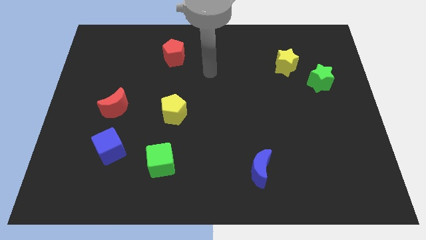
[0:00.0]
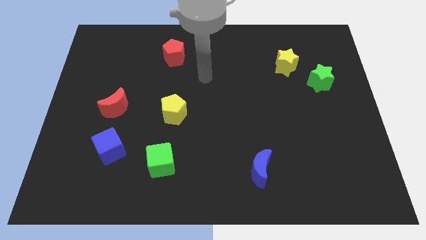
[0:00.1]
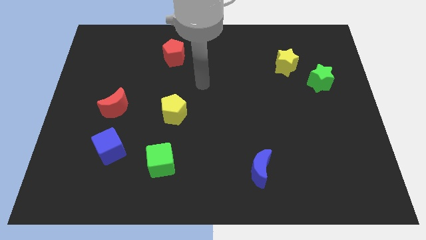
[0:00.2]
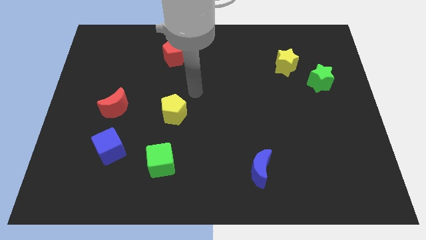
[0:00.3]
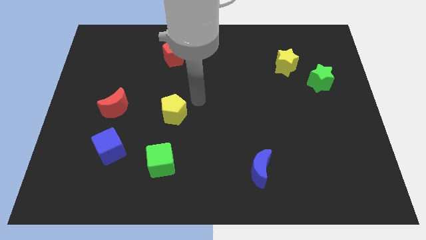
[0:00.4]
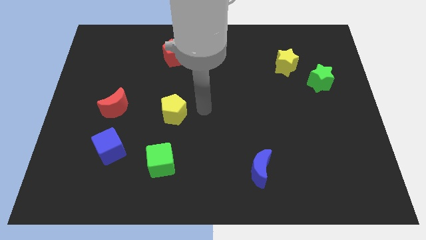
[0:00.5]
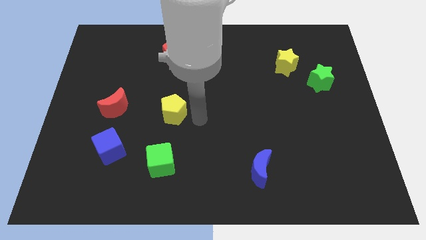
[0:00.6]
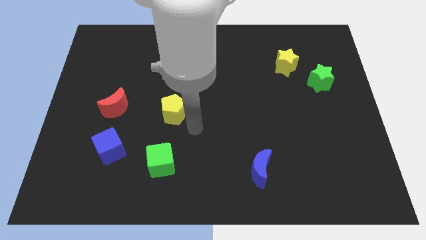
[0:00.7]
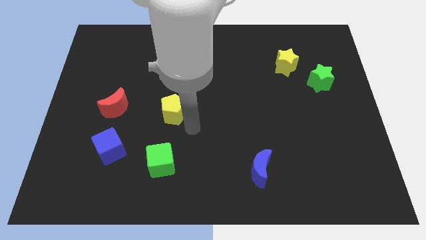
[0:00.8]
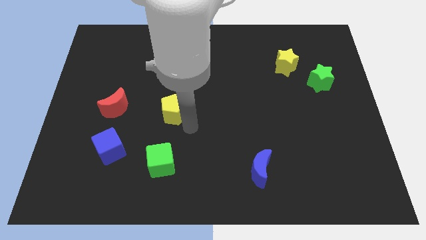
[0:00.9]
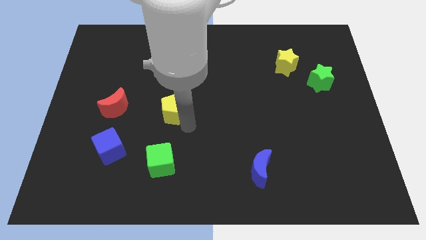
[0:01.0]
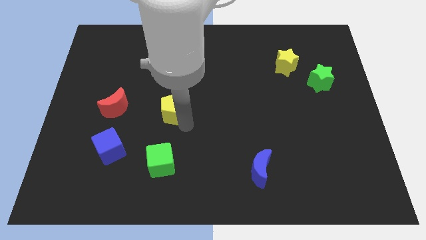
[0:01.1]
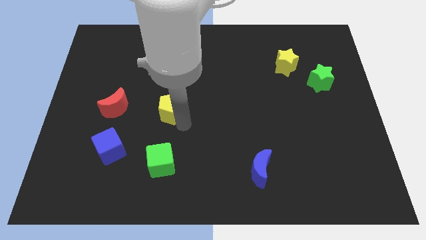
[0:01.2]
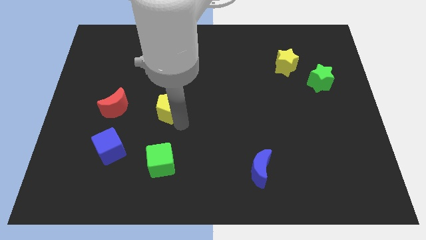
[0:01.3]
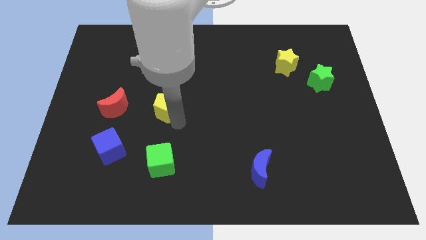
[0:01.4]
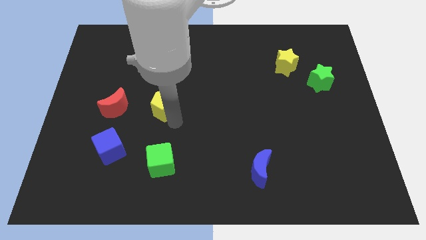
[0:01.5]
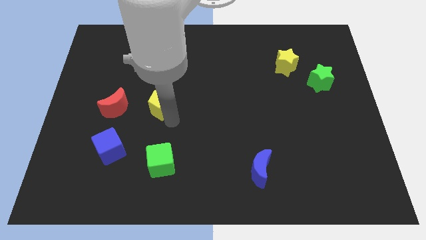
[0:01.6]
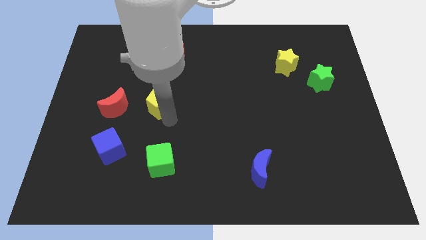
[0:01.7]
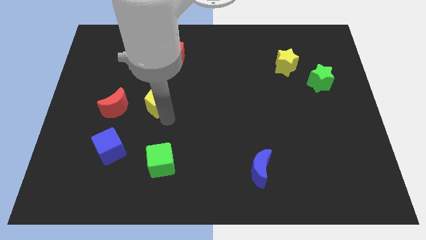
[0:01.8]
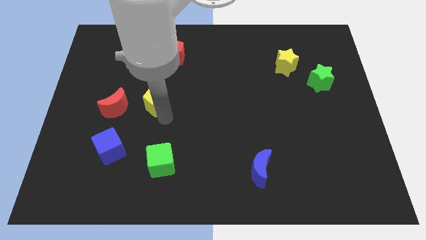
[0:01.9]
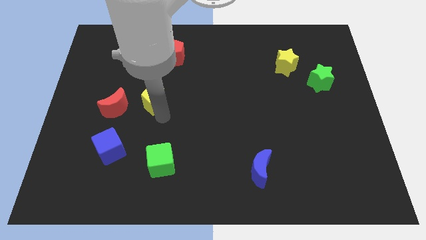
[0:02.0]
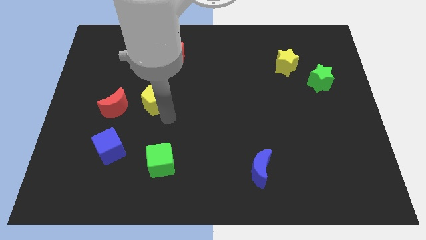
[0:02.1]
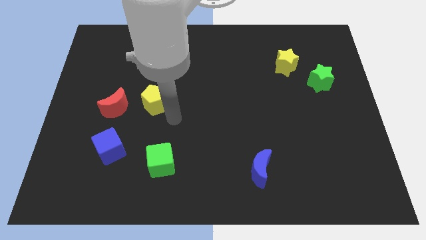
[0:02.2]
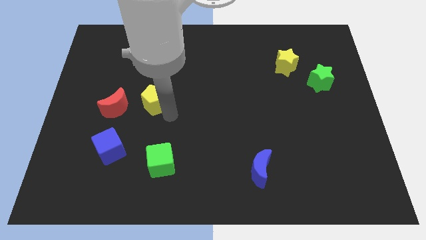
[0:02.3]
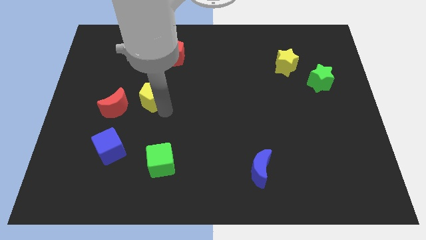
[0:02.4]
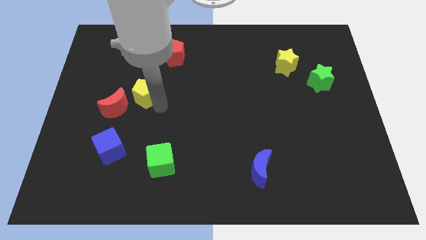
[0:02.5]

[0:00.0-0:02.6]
slide the yellow pentagon slightly upwards and left diagonally

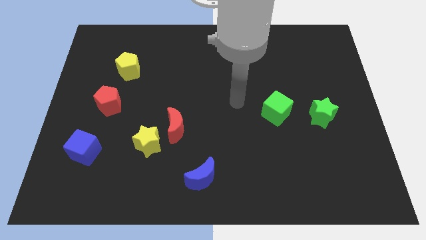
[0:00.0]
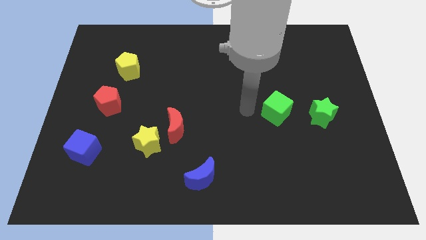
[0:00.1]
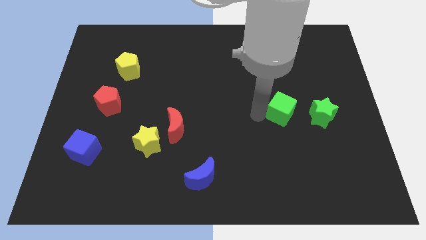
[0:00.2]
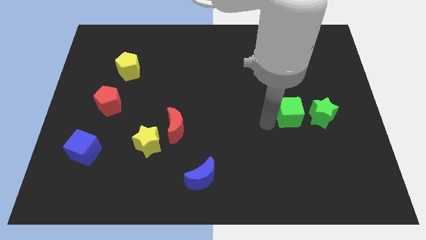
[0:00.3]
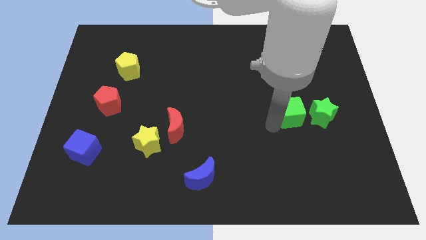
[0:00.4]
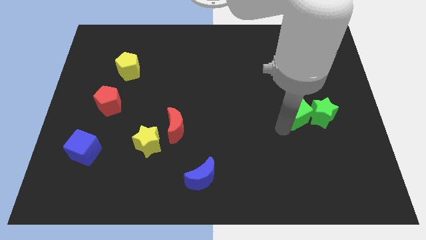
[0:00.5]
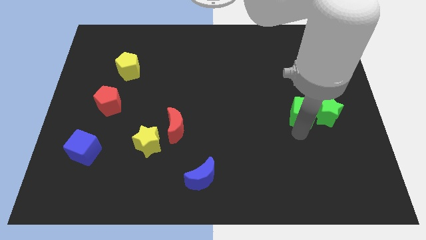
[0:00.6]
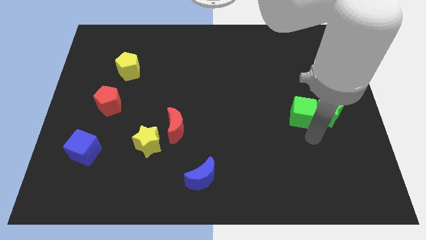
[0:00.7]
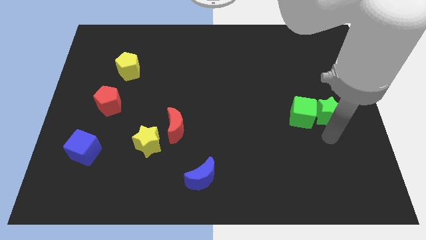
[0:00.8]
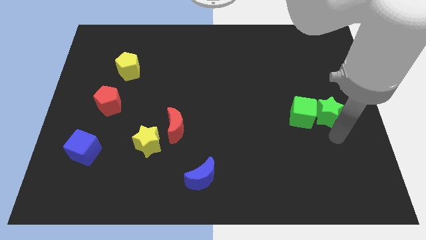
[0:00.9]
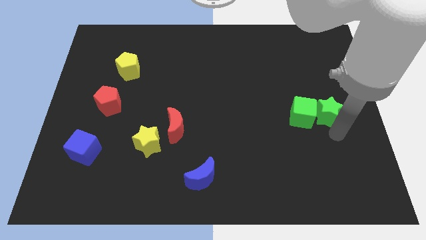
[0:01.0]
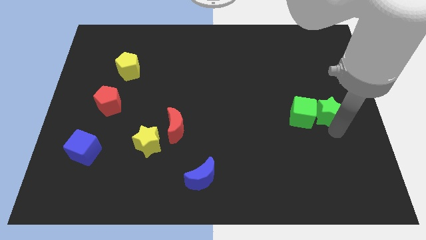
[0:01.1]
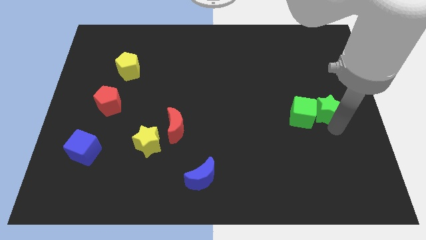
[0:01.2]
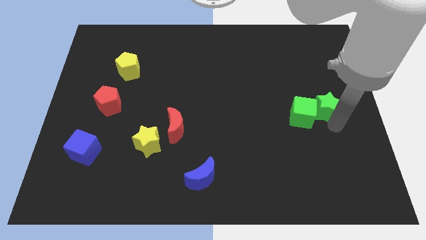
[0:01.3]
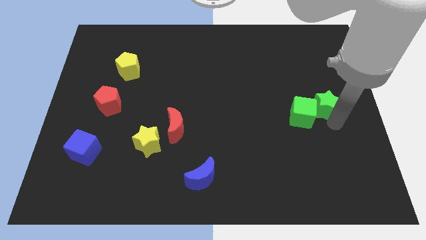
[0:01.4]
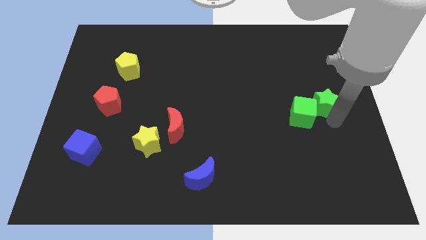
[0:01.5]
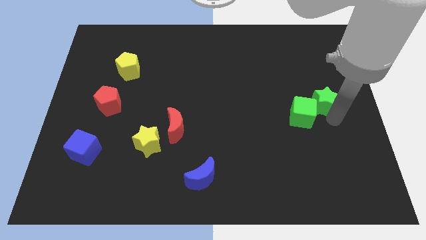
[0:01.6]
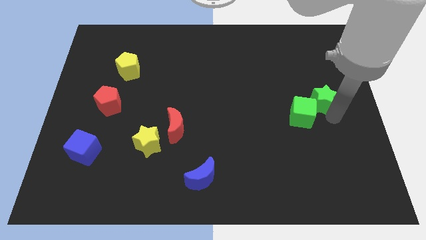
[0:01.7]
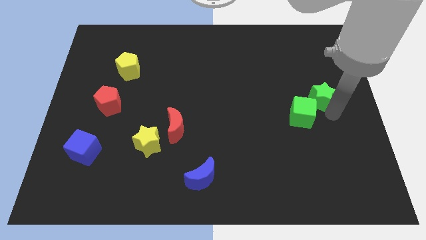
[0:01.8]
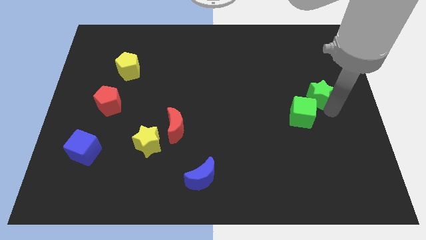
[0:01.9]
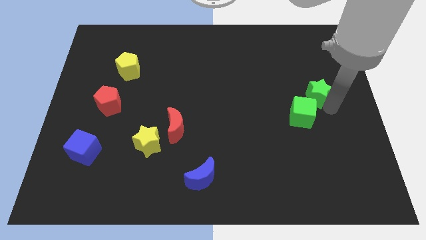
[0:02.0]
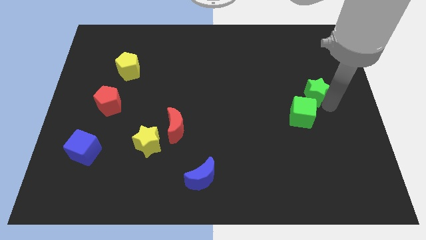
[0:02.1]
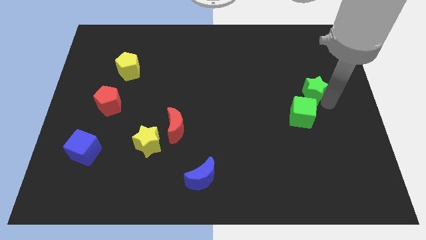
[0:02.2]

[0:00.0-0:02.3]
move the green star a little upwards

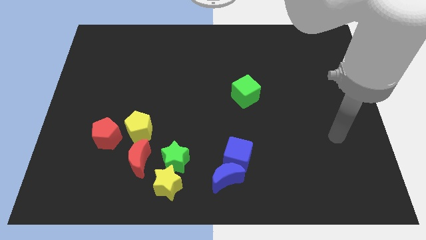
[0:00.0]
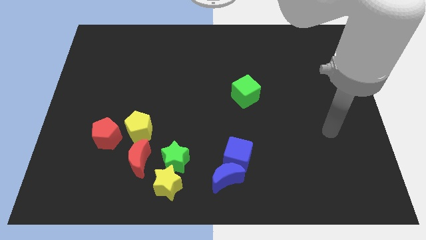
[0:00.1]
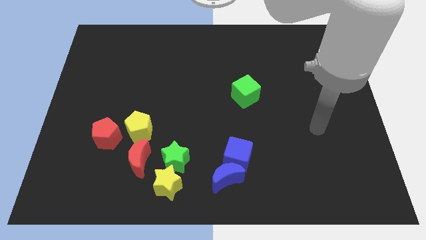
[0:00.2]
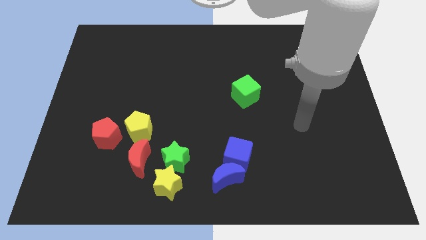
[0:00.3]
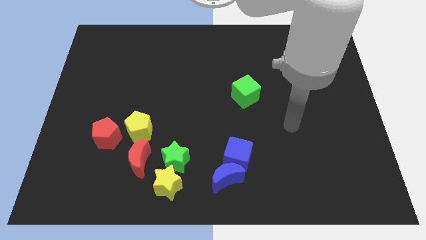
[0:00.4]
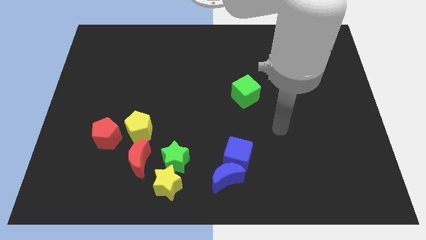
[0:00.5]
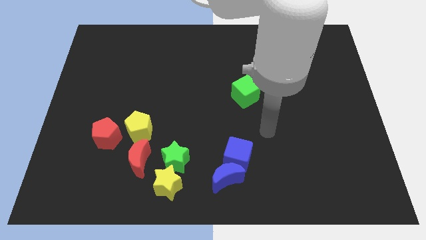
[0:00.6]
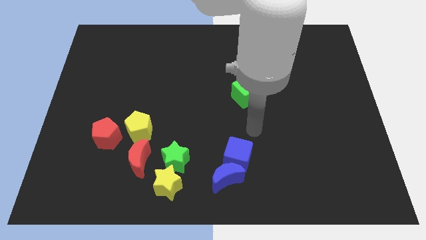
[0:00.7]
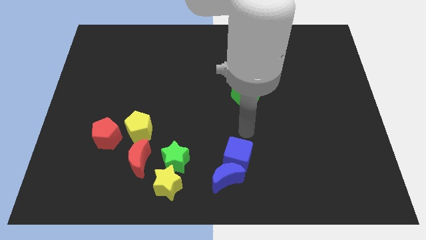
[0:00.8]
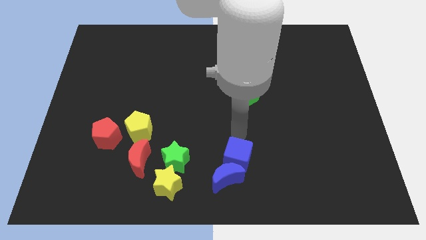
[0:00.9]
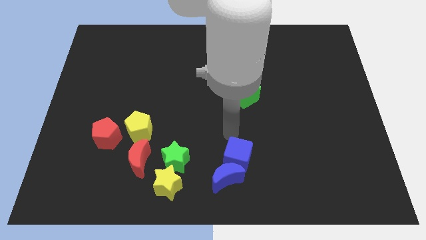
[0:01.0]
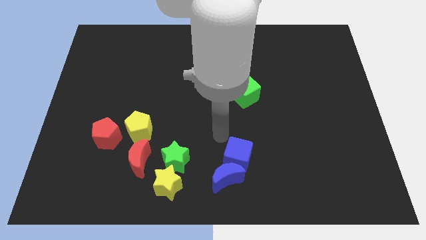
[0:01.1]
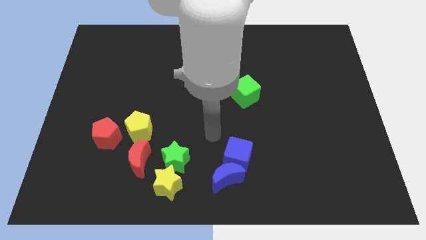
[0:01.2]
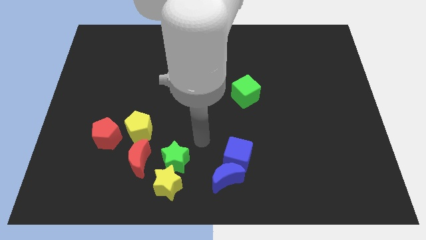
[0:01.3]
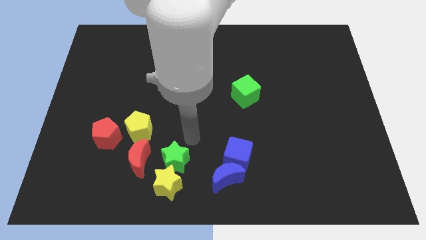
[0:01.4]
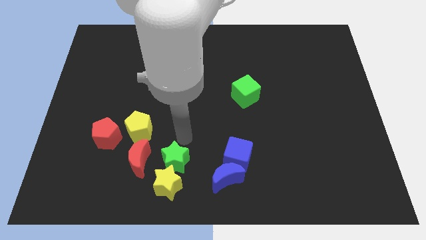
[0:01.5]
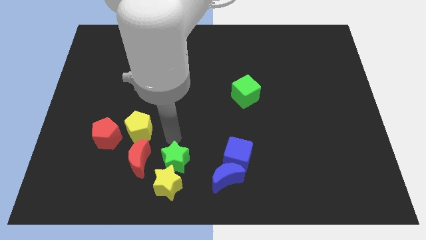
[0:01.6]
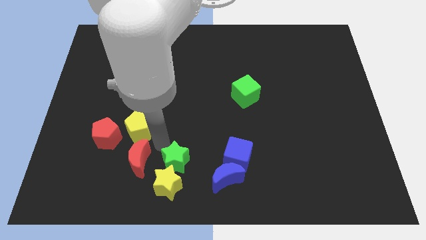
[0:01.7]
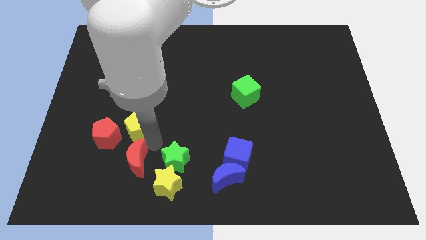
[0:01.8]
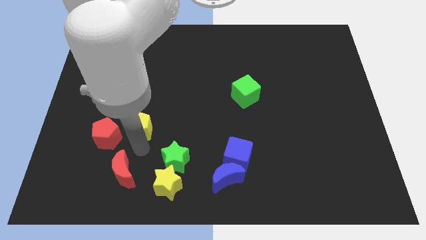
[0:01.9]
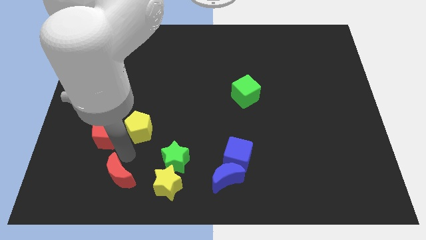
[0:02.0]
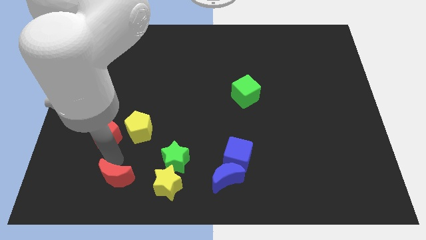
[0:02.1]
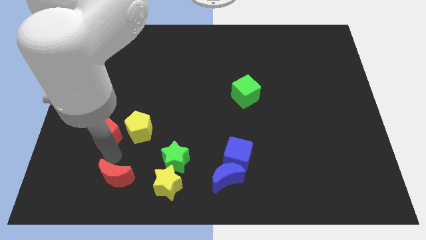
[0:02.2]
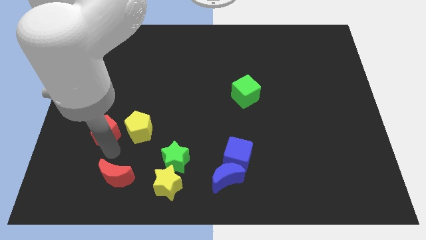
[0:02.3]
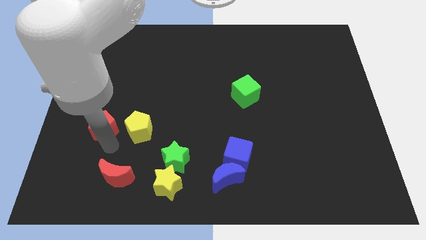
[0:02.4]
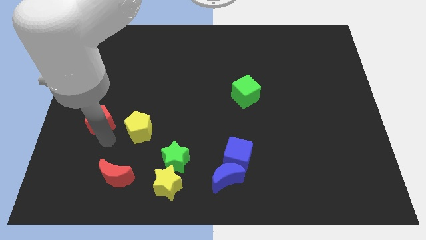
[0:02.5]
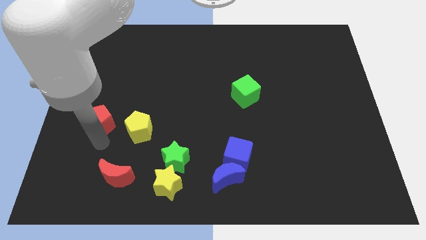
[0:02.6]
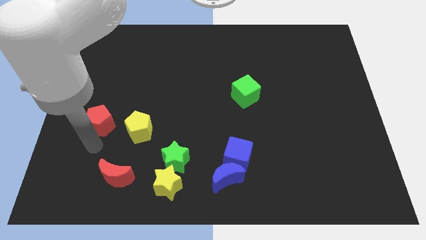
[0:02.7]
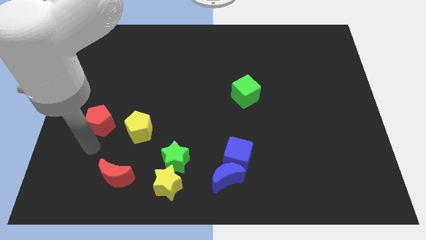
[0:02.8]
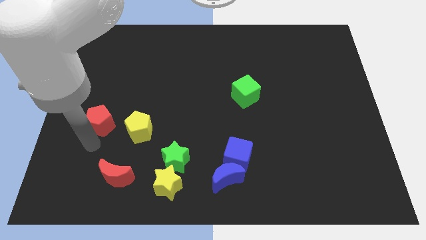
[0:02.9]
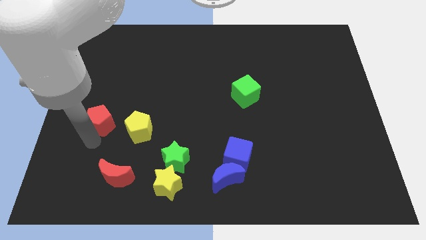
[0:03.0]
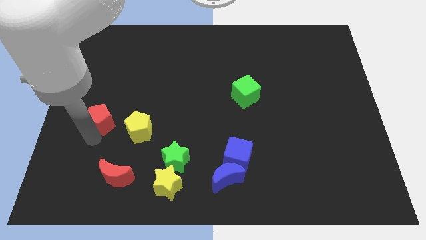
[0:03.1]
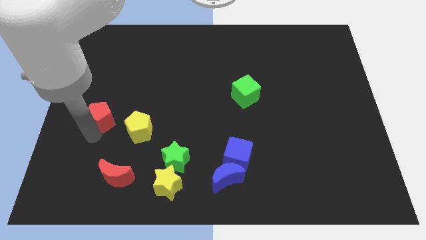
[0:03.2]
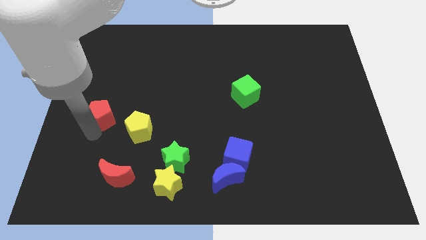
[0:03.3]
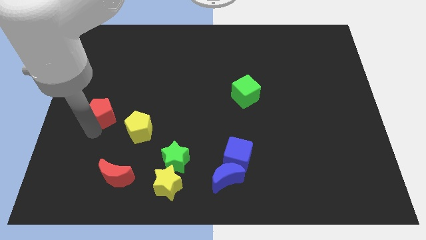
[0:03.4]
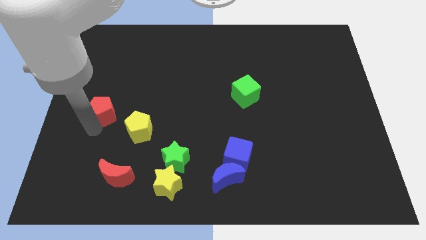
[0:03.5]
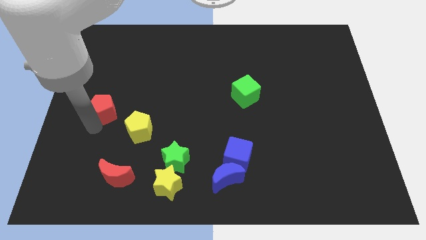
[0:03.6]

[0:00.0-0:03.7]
slightly move the red pentagon up
